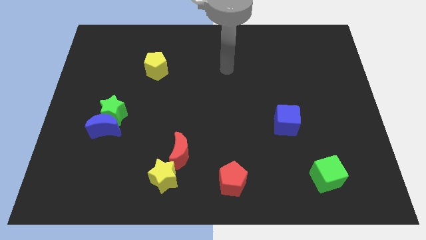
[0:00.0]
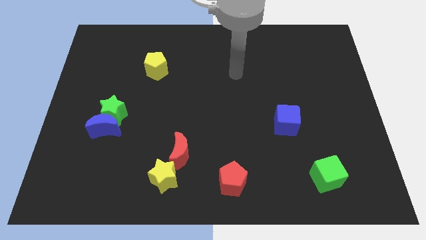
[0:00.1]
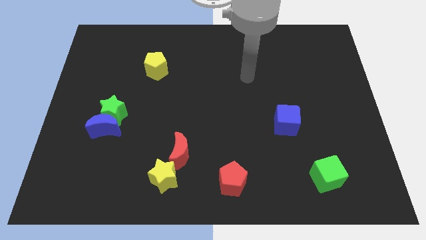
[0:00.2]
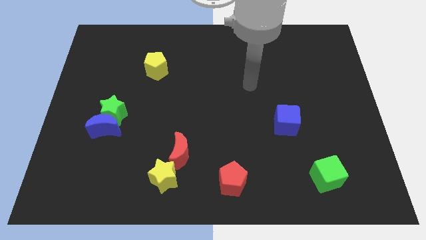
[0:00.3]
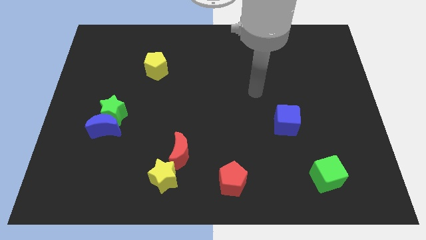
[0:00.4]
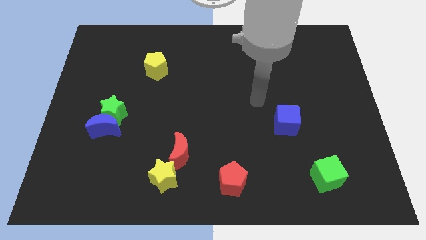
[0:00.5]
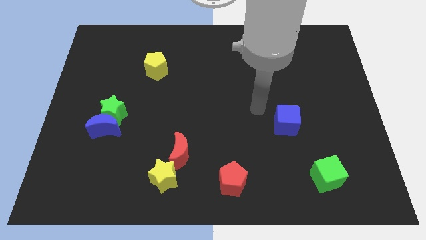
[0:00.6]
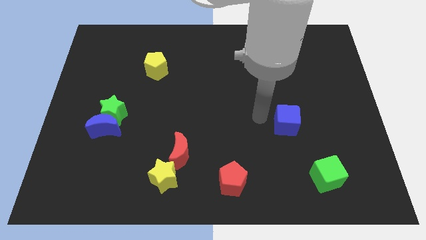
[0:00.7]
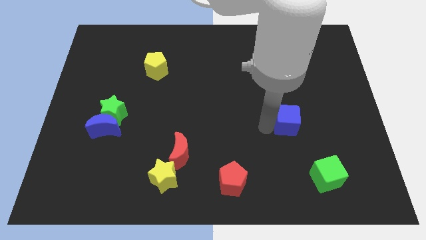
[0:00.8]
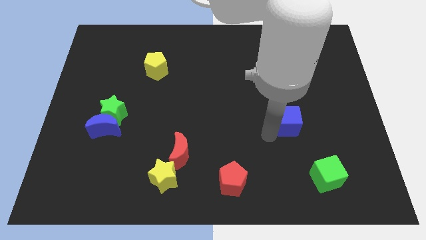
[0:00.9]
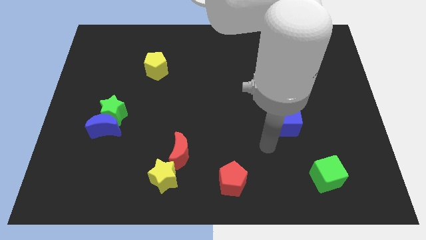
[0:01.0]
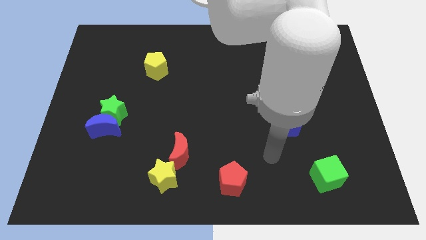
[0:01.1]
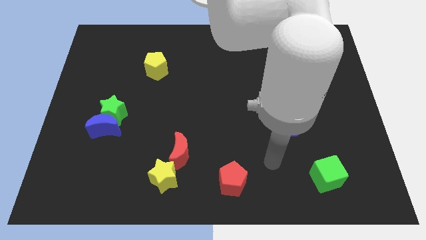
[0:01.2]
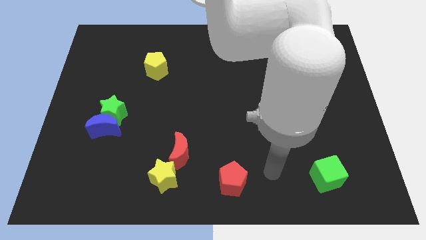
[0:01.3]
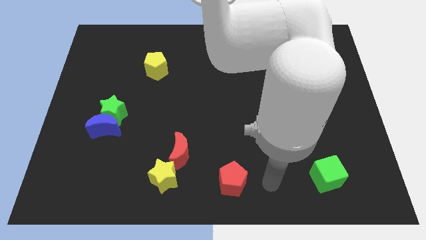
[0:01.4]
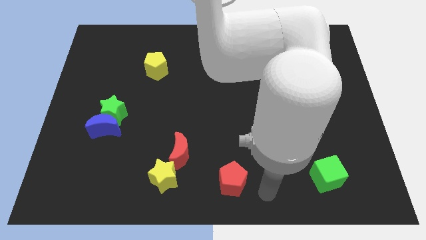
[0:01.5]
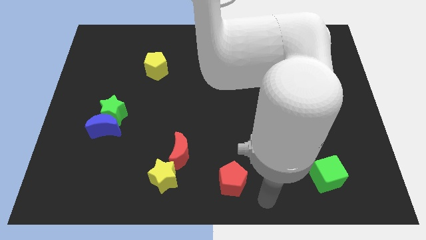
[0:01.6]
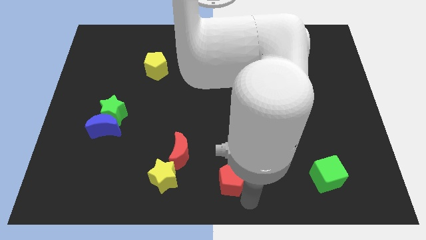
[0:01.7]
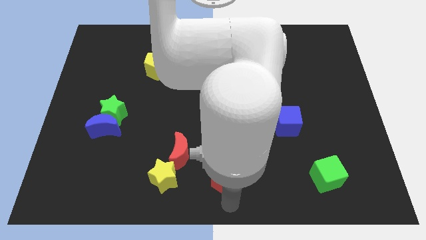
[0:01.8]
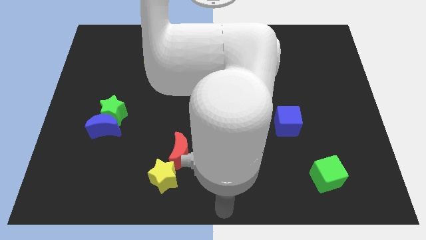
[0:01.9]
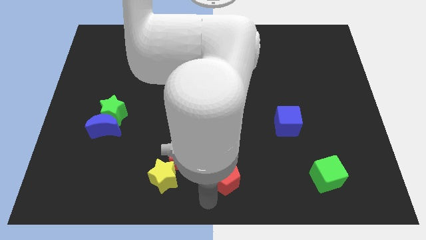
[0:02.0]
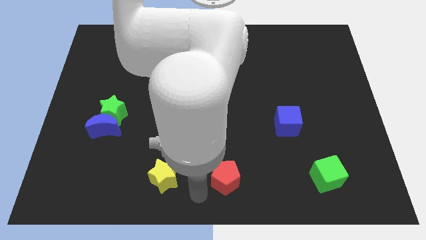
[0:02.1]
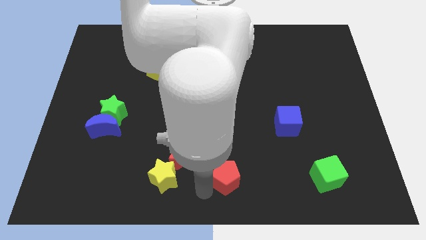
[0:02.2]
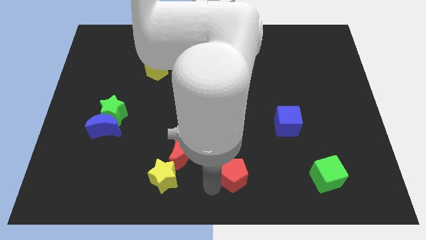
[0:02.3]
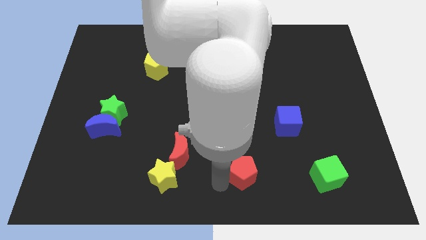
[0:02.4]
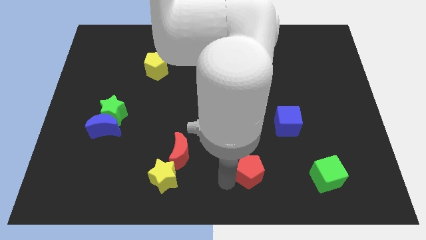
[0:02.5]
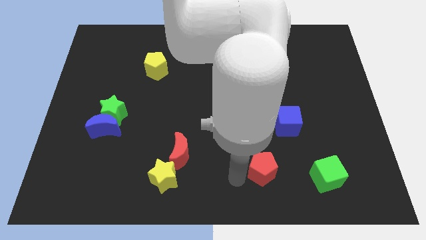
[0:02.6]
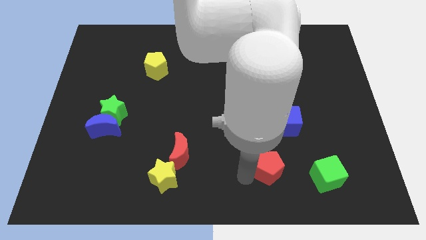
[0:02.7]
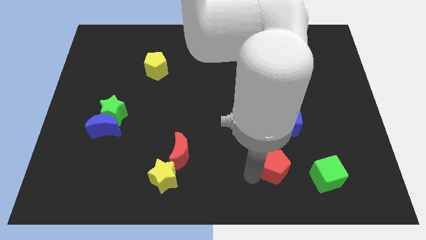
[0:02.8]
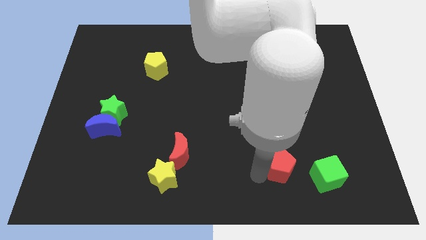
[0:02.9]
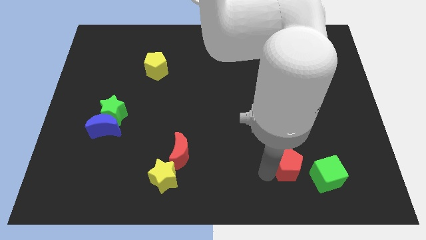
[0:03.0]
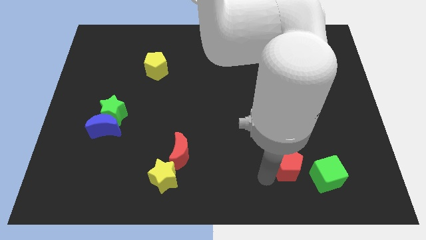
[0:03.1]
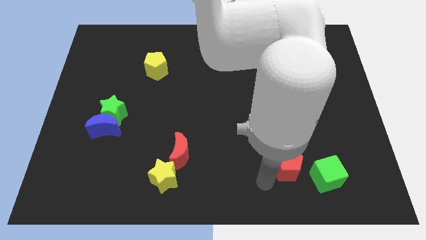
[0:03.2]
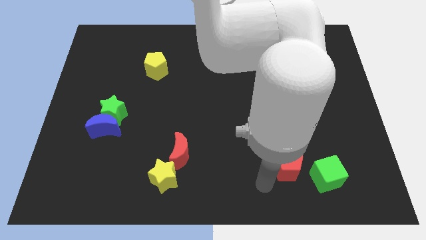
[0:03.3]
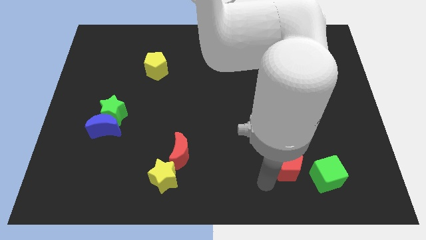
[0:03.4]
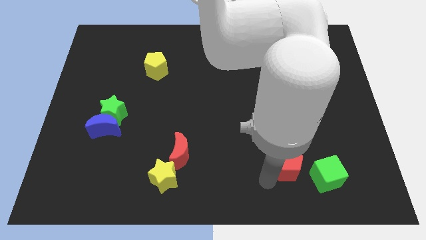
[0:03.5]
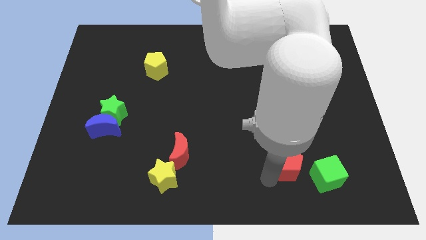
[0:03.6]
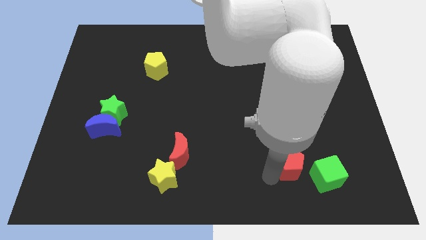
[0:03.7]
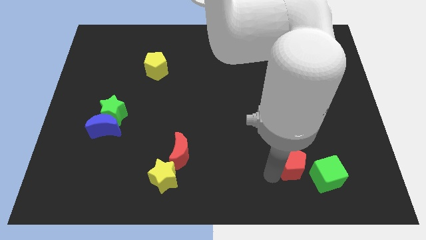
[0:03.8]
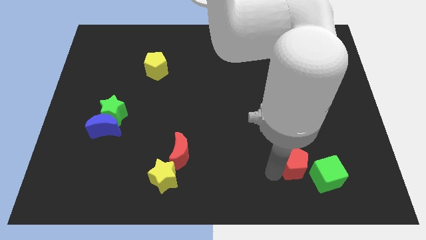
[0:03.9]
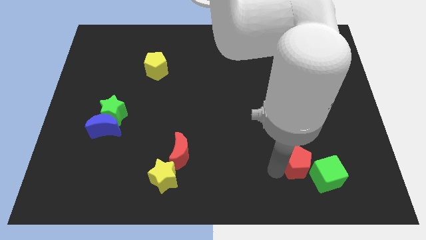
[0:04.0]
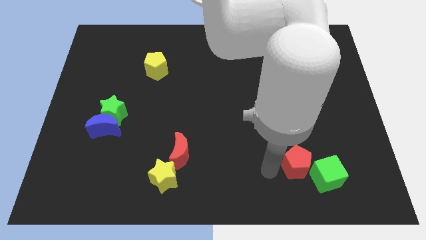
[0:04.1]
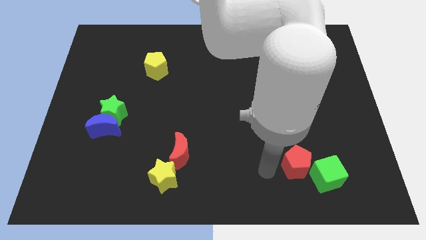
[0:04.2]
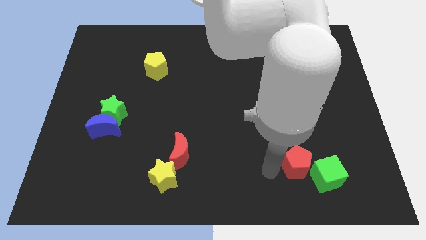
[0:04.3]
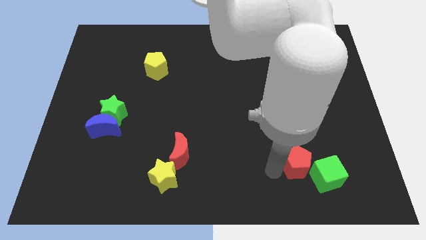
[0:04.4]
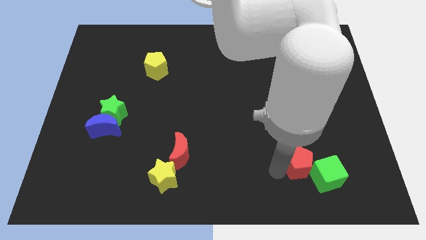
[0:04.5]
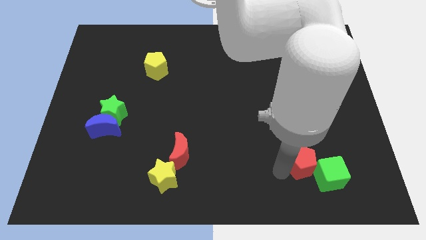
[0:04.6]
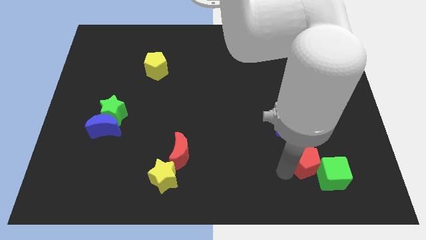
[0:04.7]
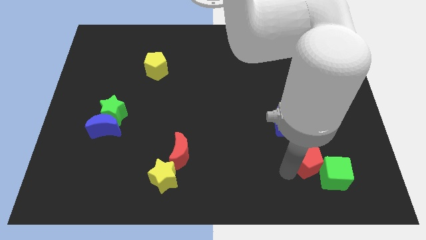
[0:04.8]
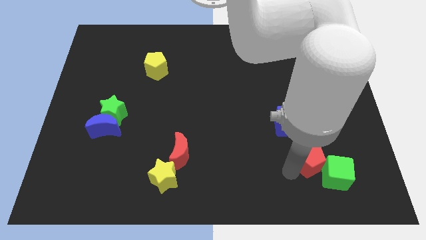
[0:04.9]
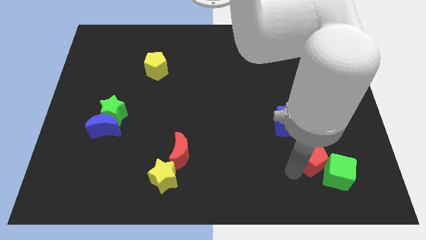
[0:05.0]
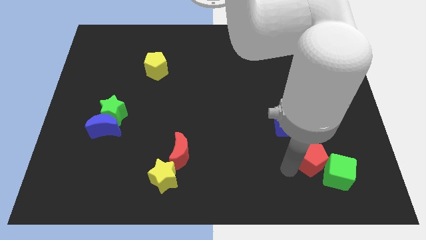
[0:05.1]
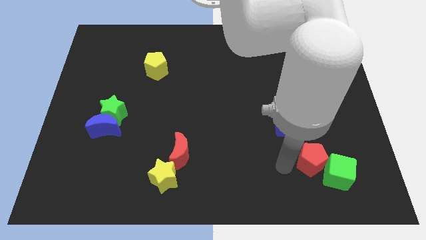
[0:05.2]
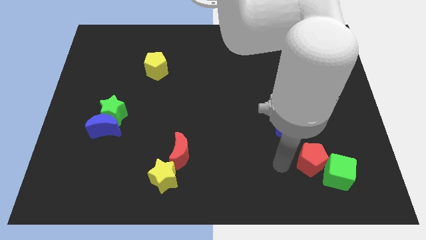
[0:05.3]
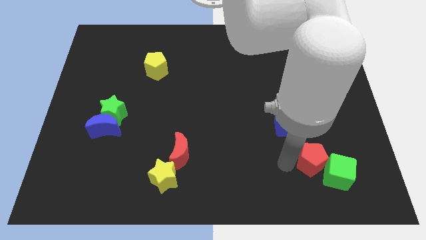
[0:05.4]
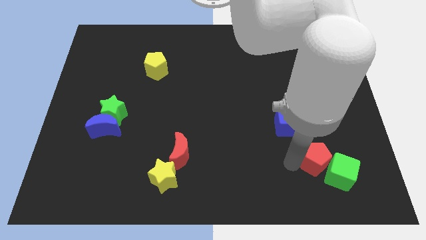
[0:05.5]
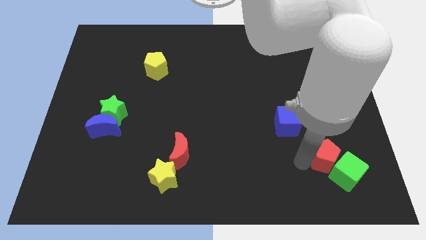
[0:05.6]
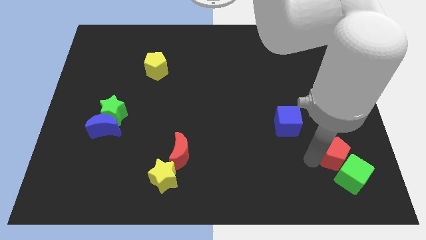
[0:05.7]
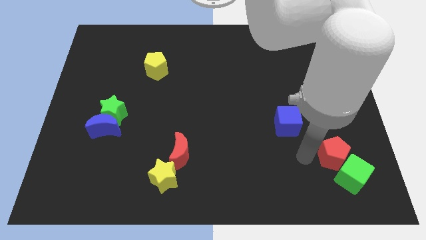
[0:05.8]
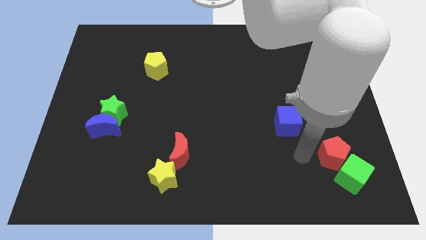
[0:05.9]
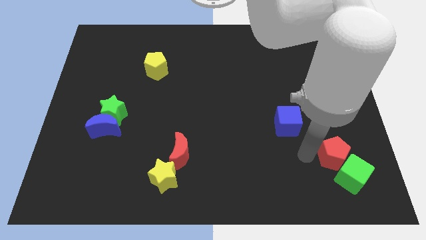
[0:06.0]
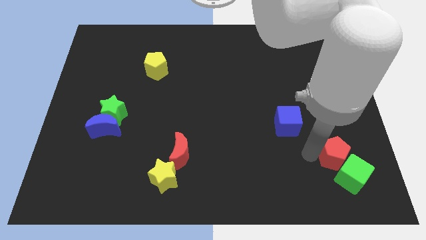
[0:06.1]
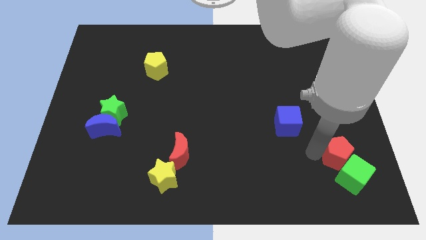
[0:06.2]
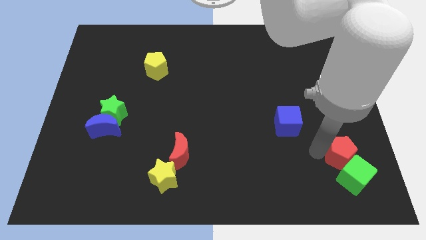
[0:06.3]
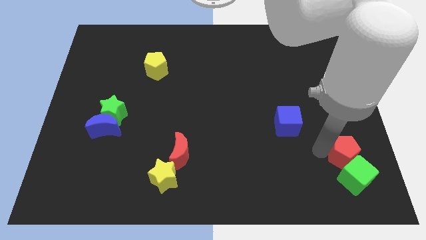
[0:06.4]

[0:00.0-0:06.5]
move the red pentagon to the top right side of the green cube
